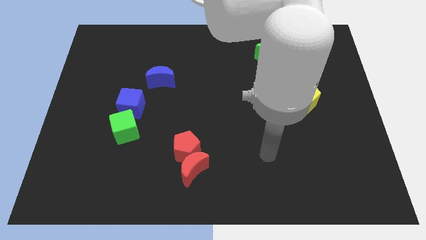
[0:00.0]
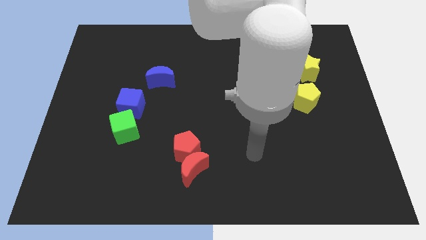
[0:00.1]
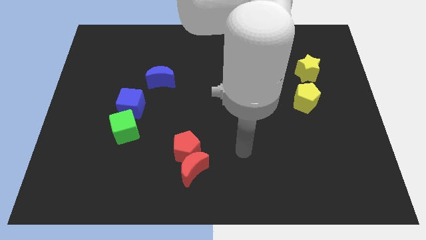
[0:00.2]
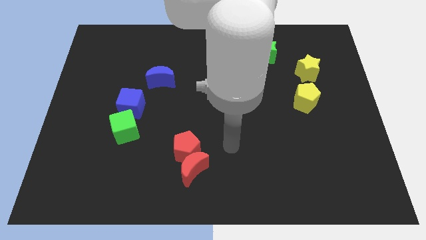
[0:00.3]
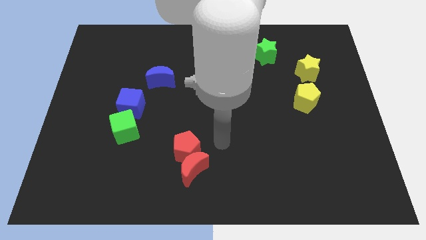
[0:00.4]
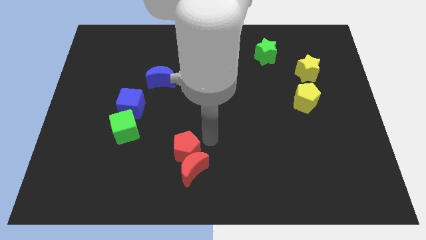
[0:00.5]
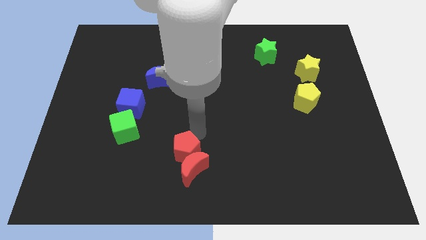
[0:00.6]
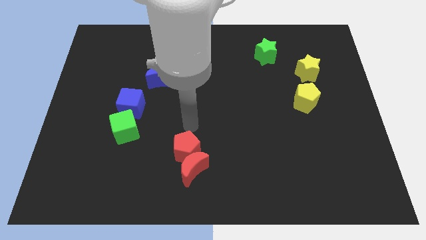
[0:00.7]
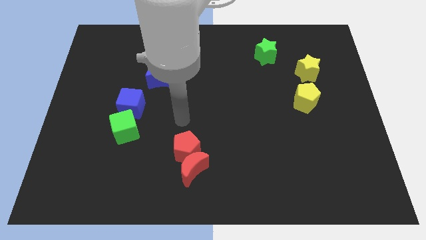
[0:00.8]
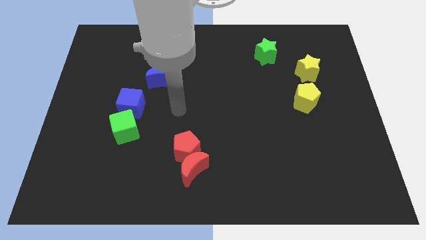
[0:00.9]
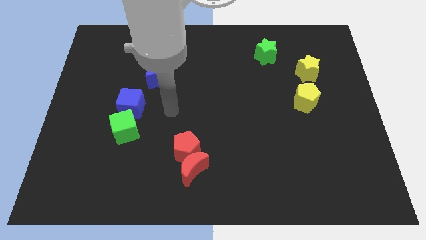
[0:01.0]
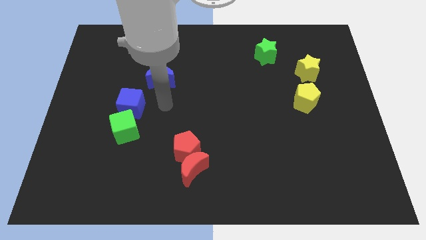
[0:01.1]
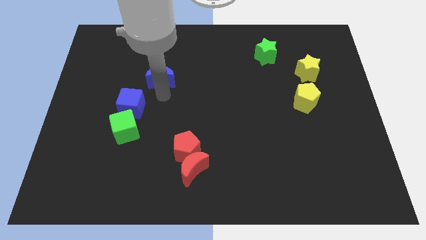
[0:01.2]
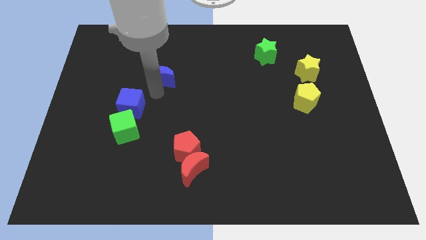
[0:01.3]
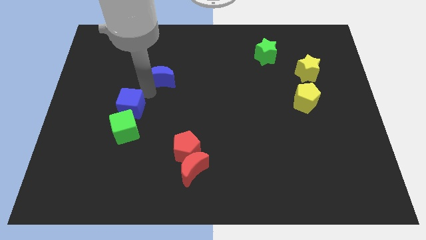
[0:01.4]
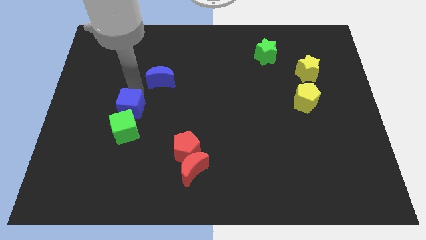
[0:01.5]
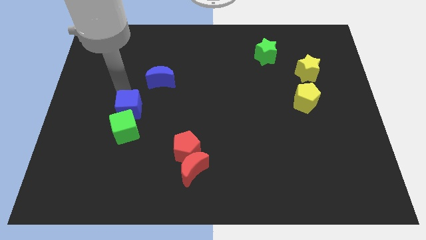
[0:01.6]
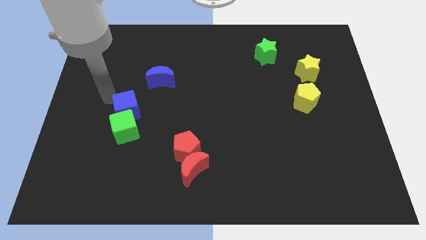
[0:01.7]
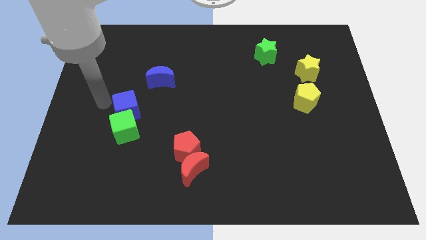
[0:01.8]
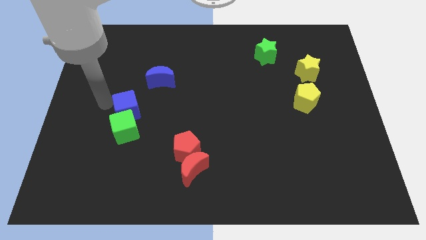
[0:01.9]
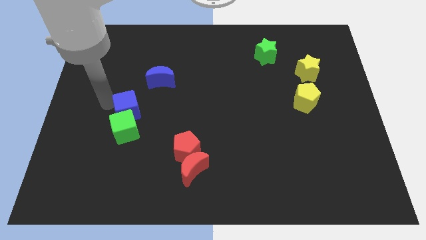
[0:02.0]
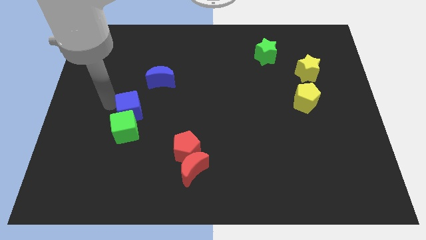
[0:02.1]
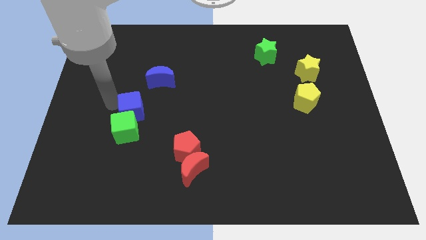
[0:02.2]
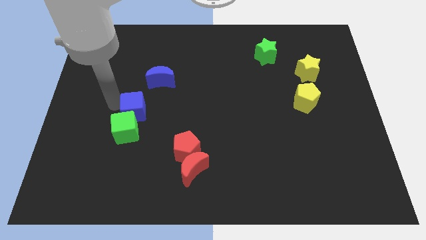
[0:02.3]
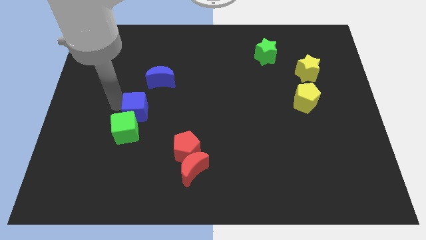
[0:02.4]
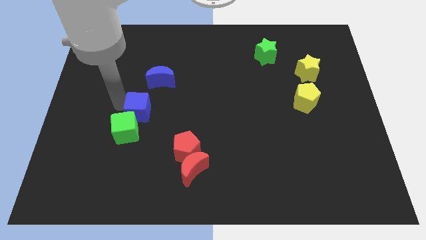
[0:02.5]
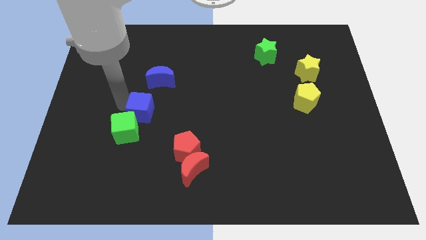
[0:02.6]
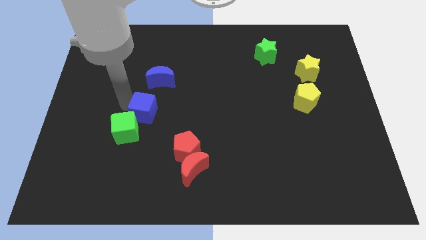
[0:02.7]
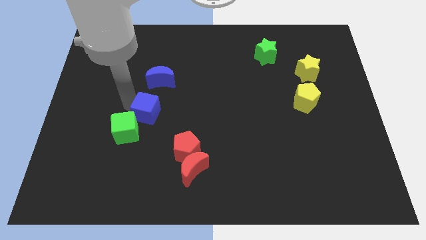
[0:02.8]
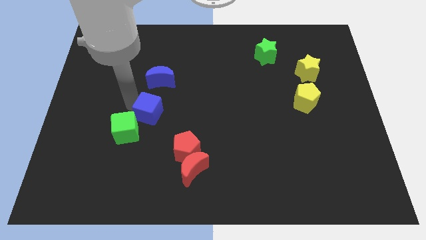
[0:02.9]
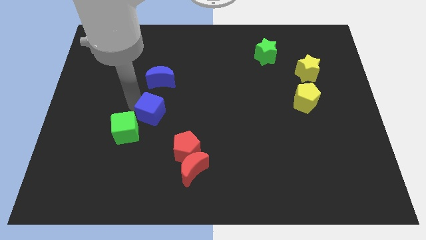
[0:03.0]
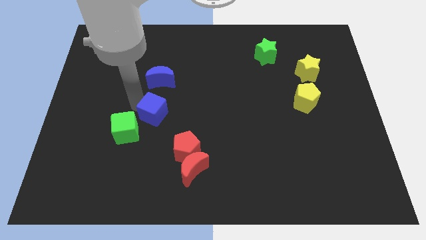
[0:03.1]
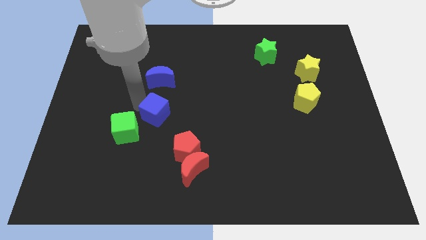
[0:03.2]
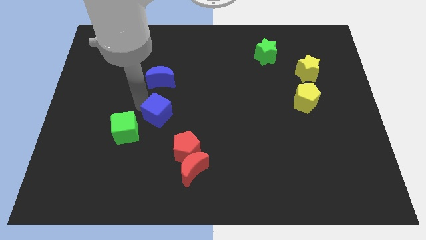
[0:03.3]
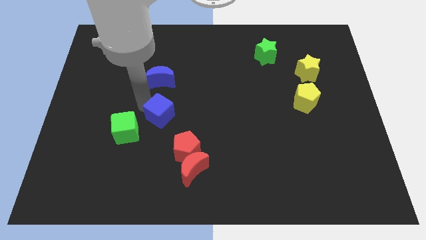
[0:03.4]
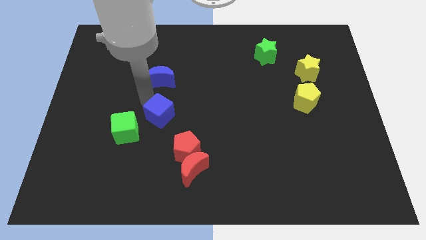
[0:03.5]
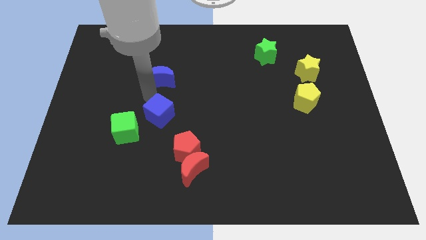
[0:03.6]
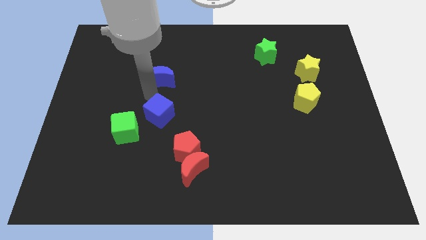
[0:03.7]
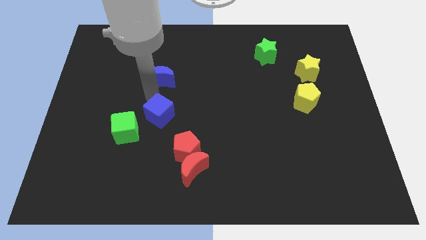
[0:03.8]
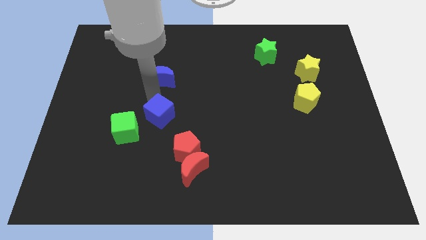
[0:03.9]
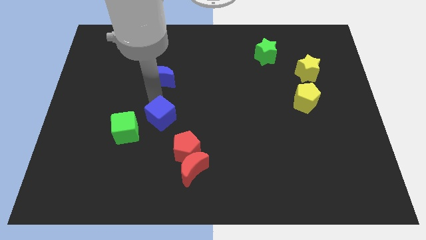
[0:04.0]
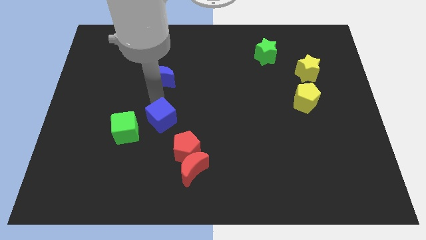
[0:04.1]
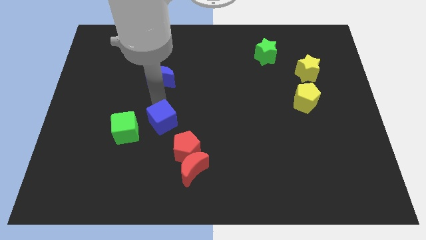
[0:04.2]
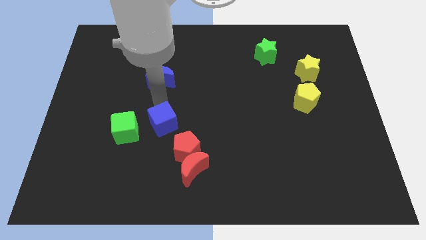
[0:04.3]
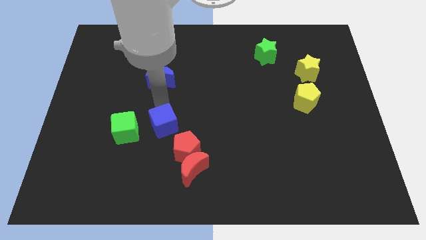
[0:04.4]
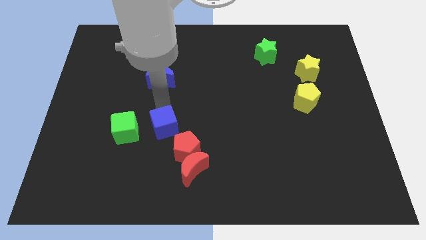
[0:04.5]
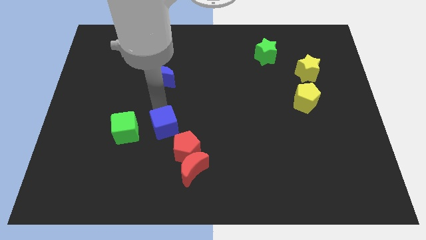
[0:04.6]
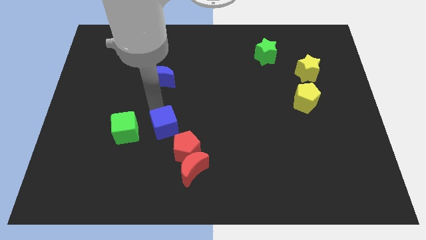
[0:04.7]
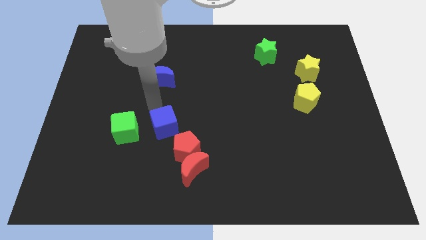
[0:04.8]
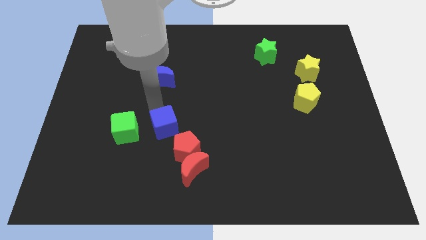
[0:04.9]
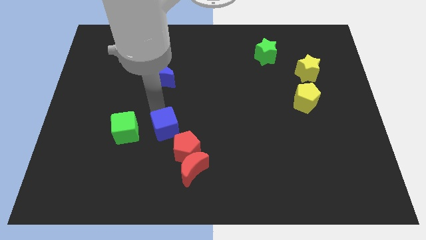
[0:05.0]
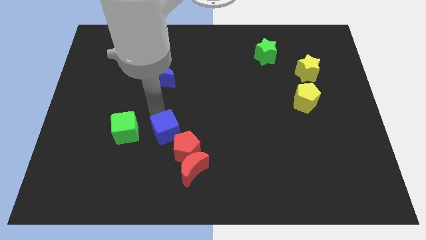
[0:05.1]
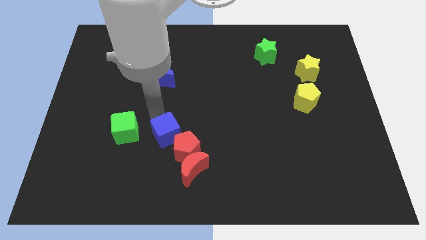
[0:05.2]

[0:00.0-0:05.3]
move the blue cube to the red pentagon

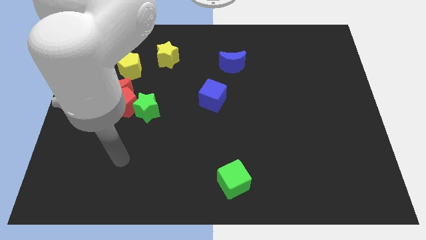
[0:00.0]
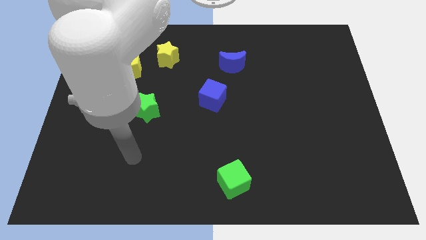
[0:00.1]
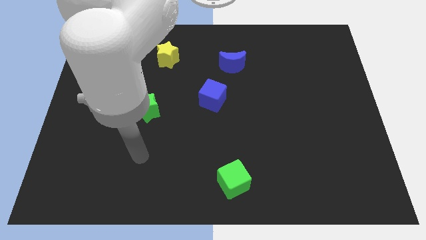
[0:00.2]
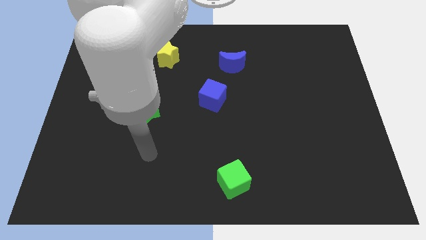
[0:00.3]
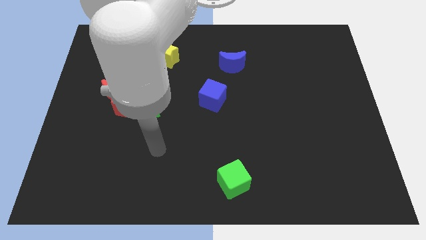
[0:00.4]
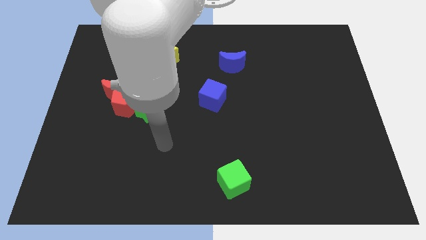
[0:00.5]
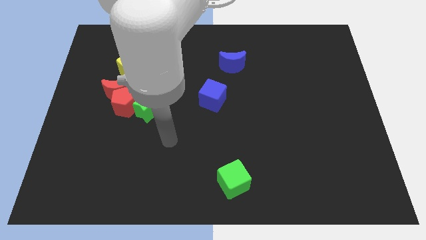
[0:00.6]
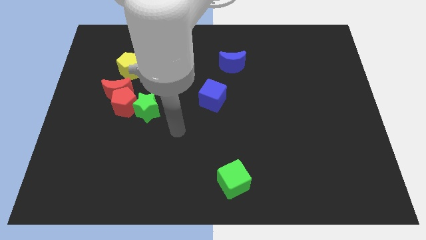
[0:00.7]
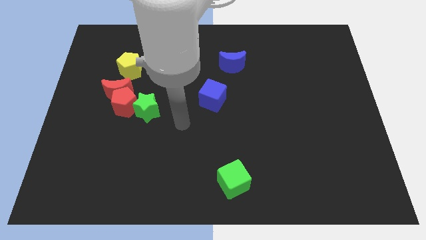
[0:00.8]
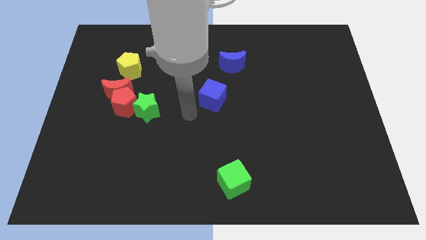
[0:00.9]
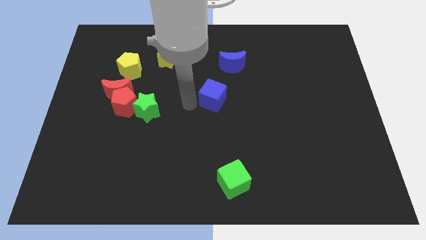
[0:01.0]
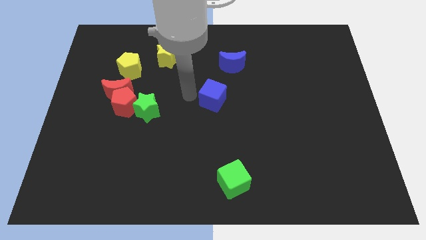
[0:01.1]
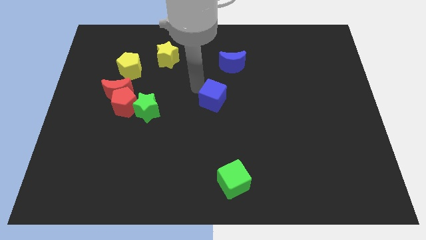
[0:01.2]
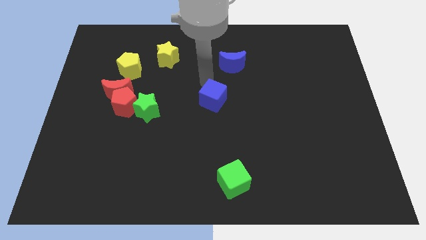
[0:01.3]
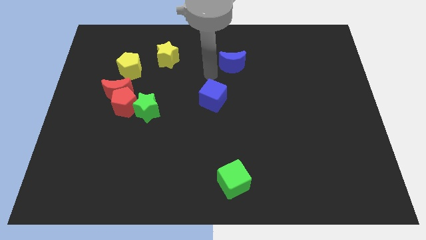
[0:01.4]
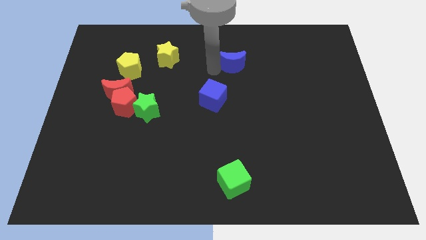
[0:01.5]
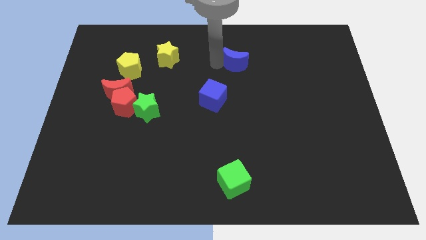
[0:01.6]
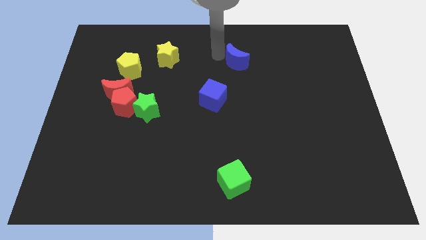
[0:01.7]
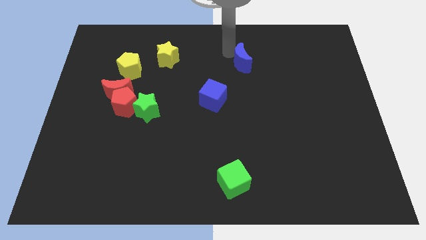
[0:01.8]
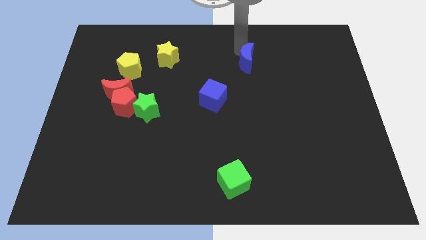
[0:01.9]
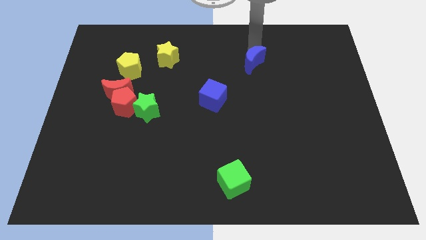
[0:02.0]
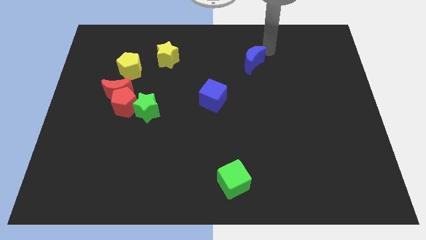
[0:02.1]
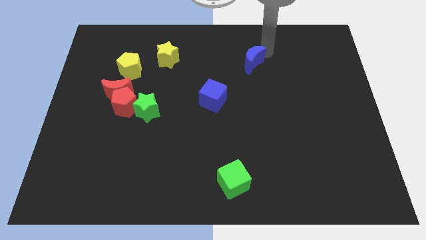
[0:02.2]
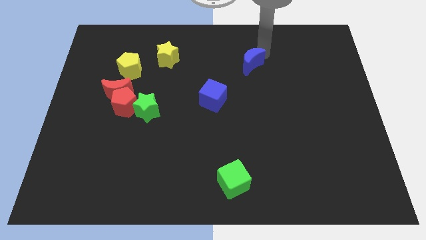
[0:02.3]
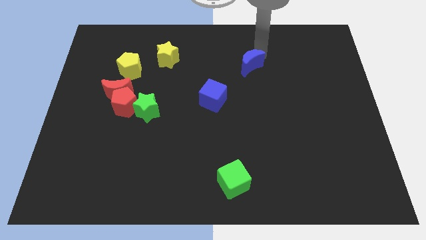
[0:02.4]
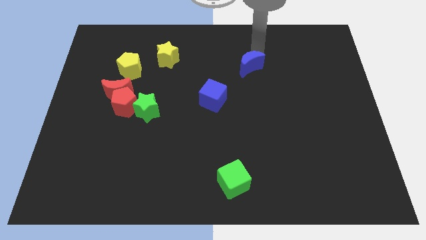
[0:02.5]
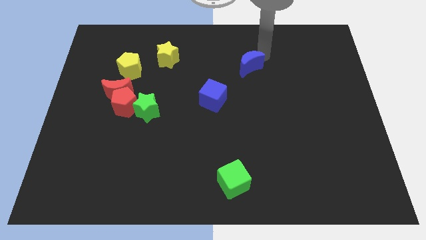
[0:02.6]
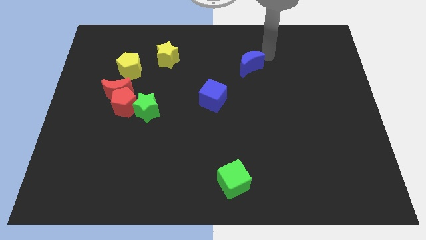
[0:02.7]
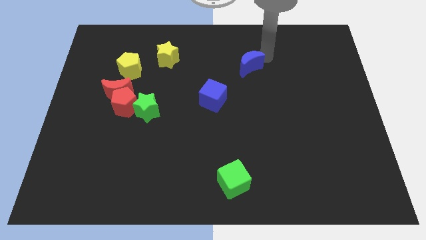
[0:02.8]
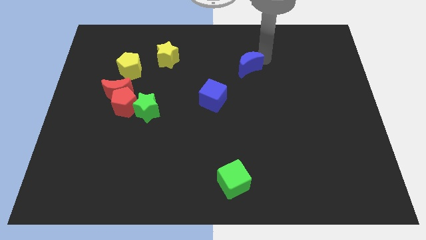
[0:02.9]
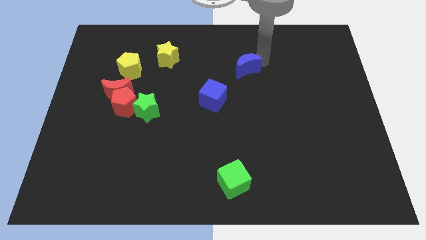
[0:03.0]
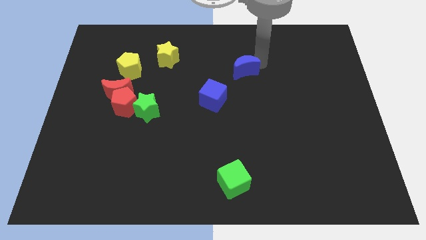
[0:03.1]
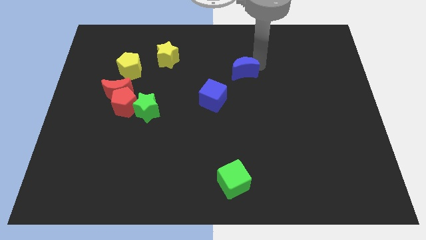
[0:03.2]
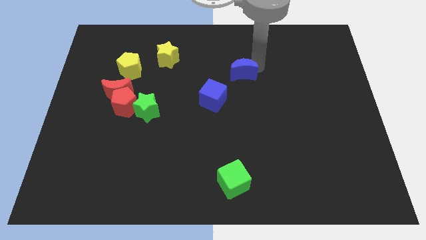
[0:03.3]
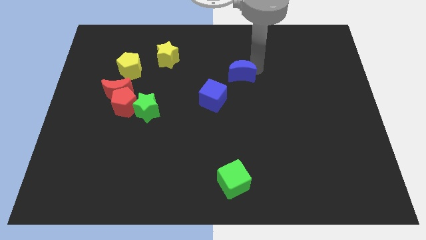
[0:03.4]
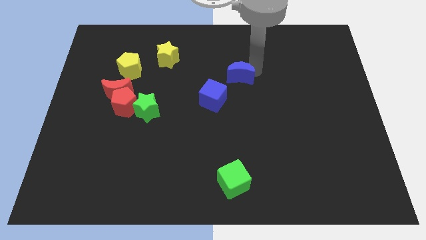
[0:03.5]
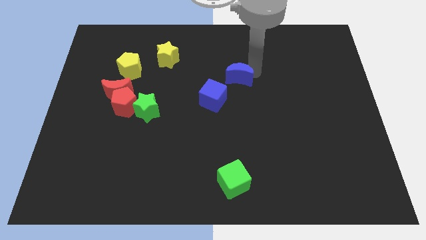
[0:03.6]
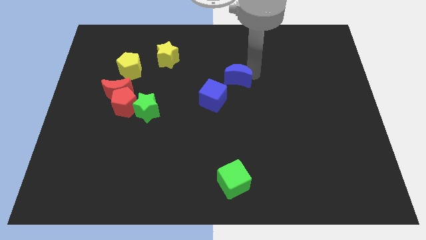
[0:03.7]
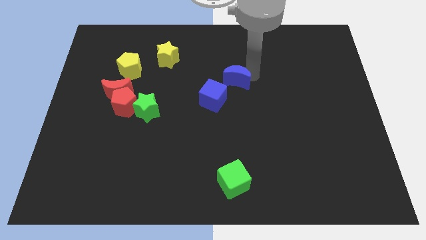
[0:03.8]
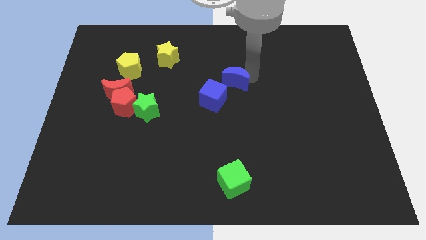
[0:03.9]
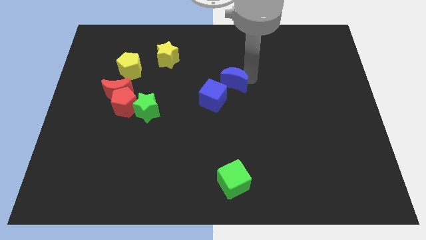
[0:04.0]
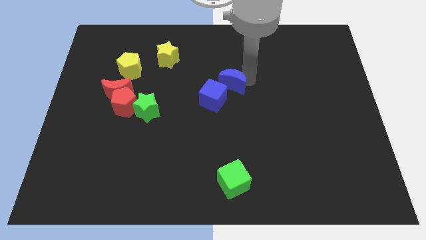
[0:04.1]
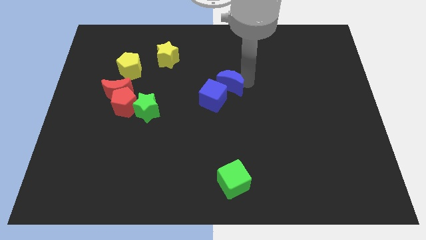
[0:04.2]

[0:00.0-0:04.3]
slide the blue moon close to the blue cube
